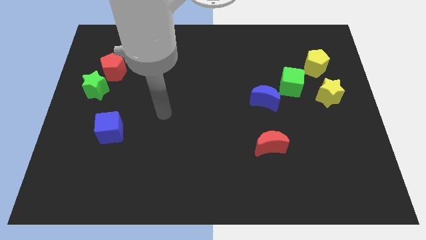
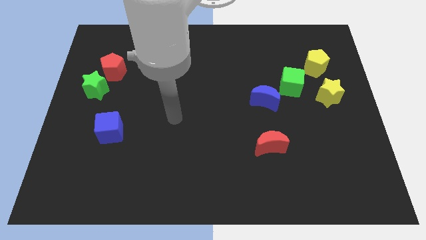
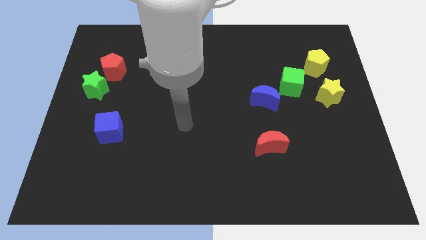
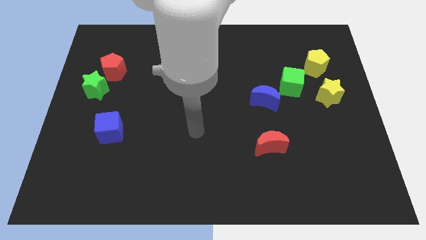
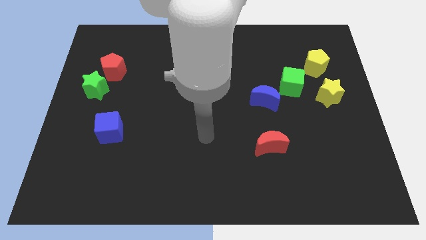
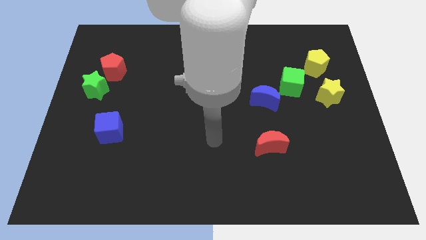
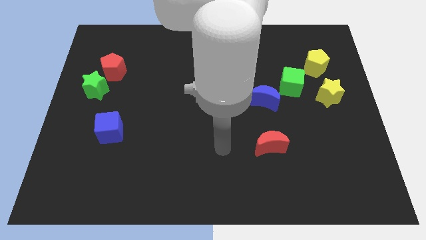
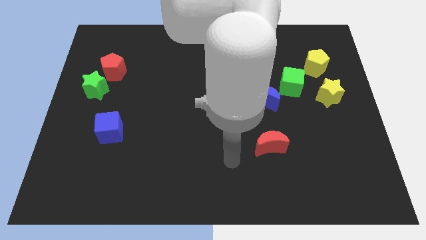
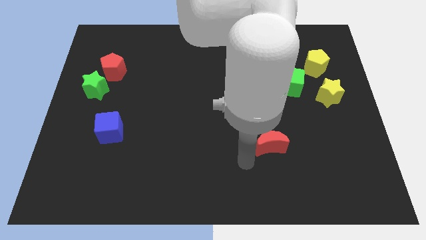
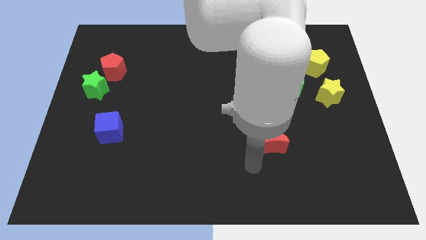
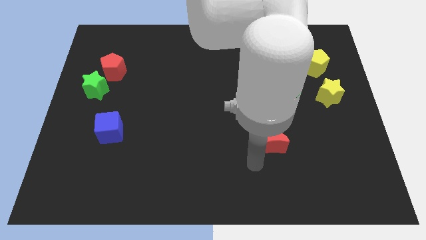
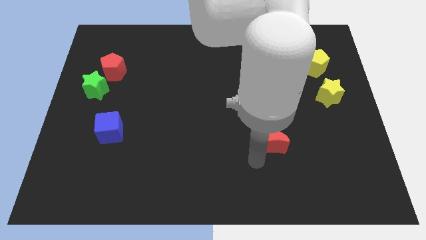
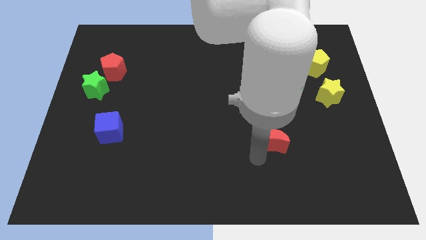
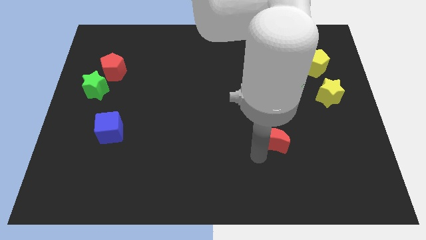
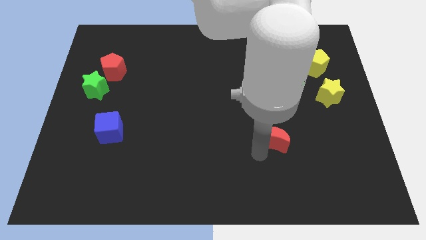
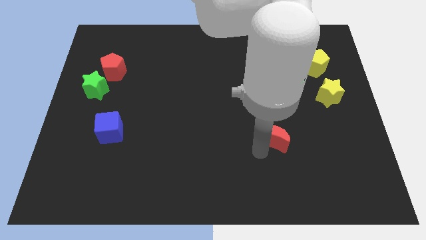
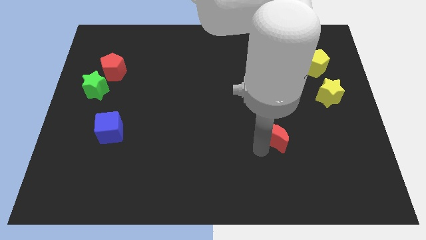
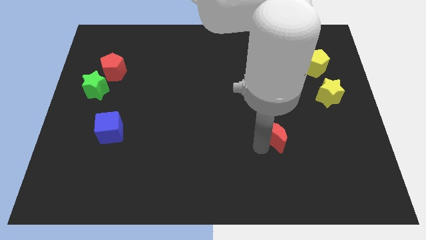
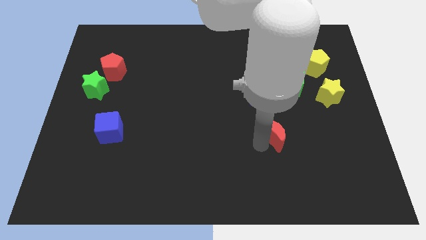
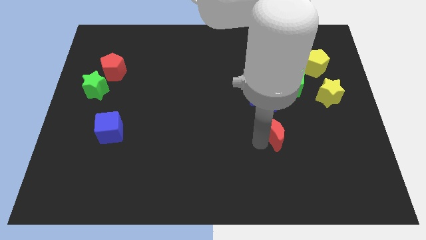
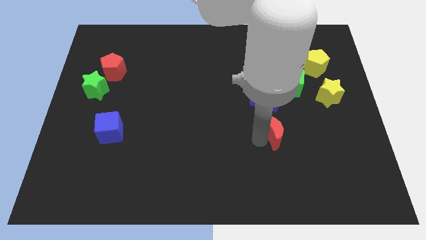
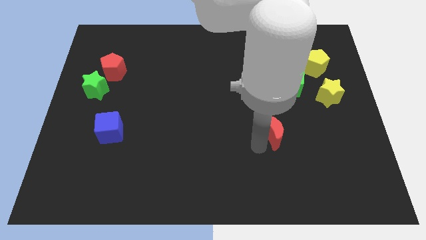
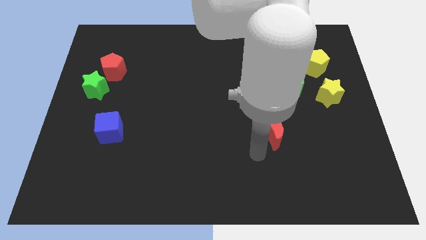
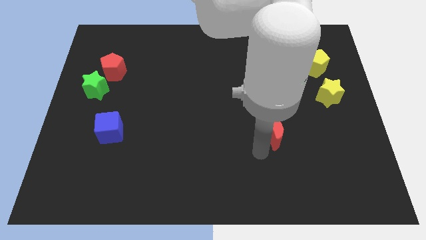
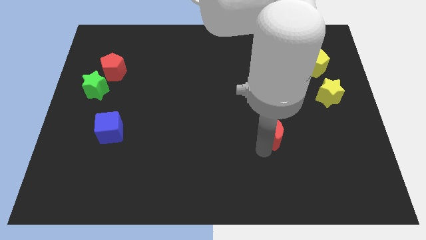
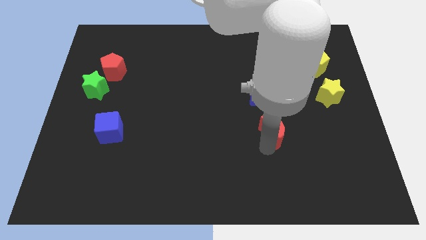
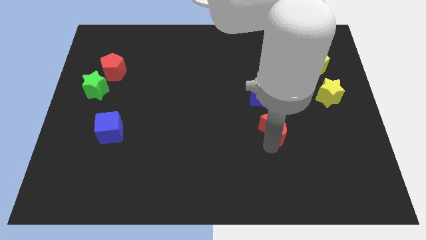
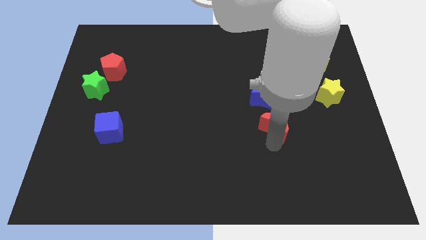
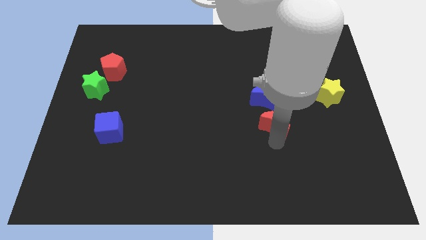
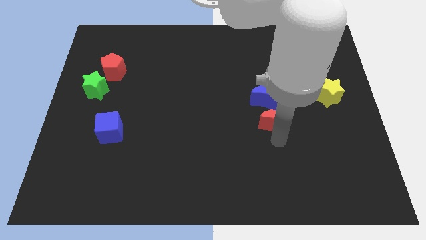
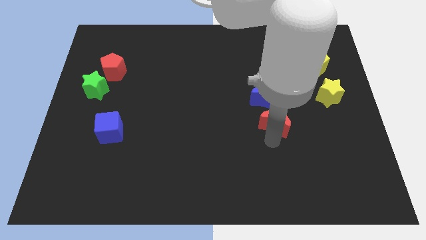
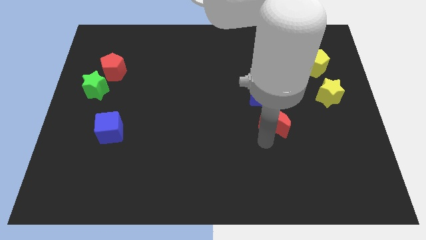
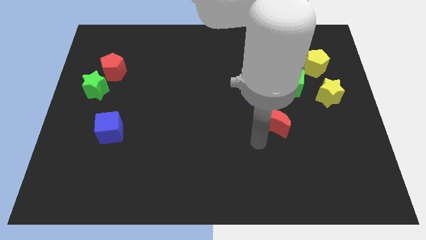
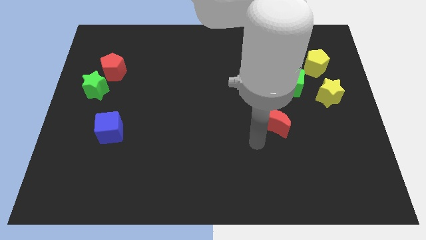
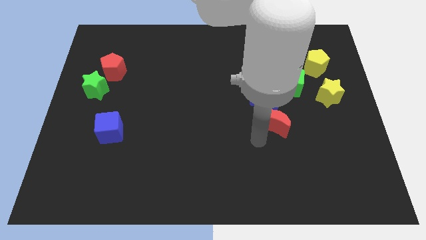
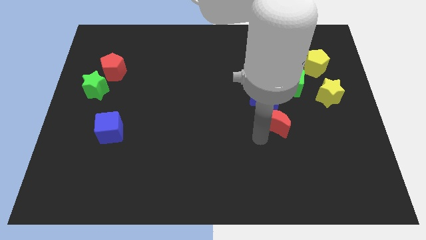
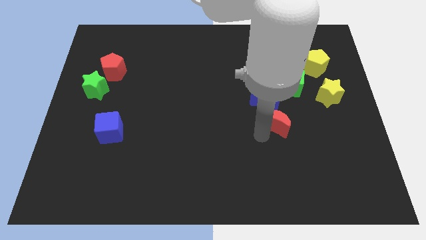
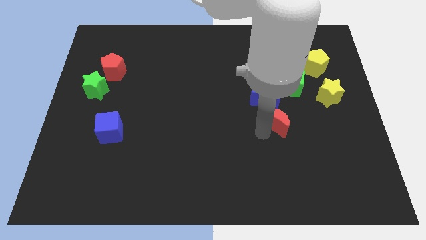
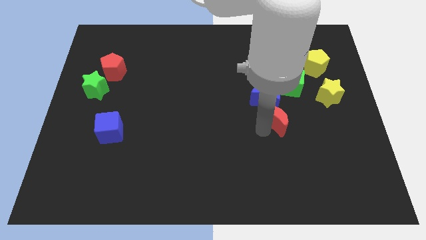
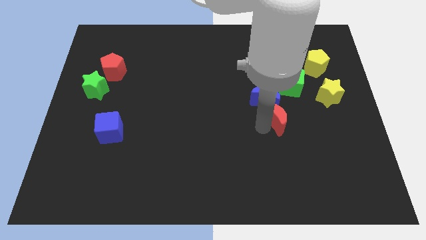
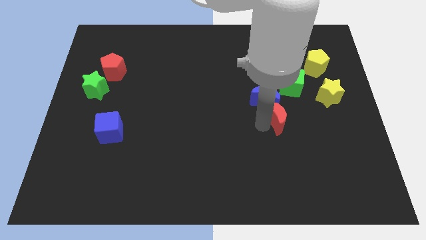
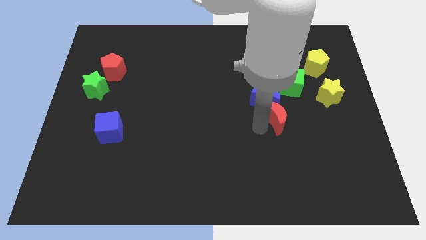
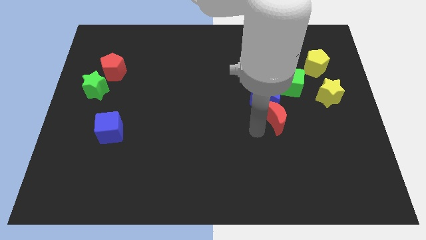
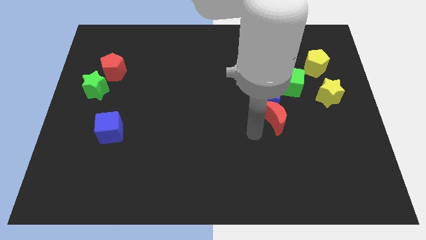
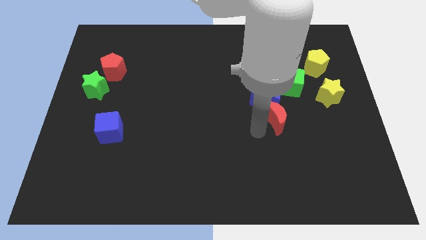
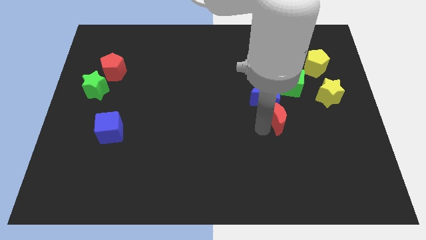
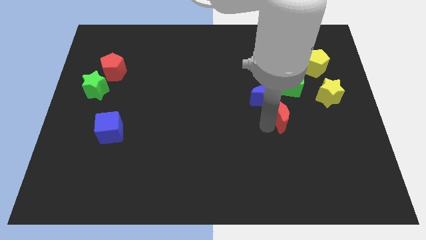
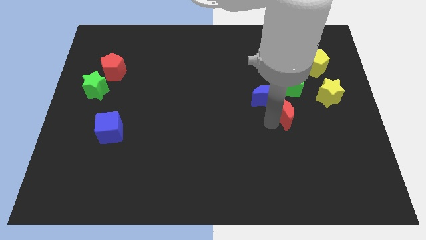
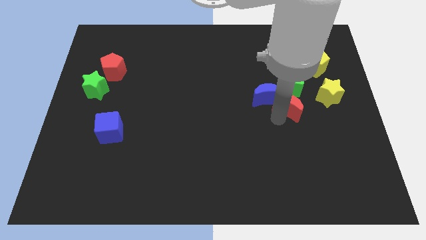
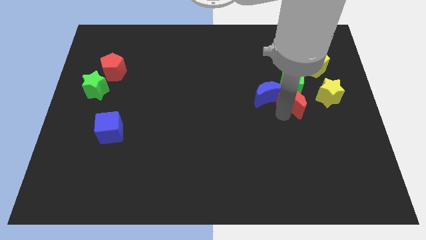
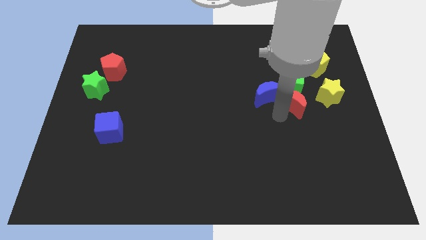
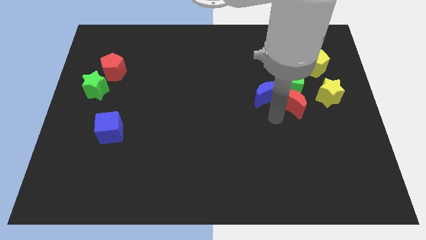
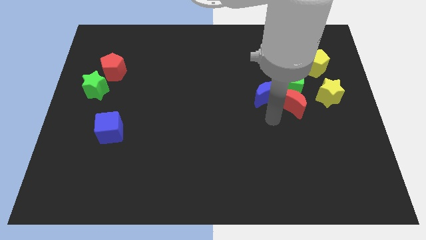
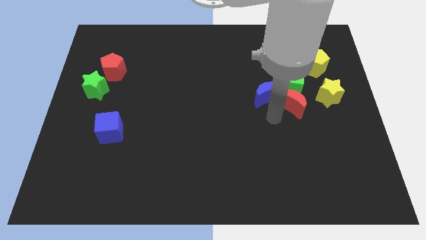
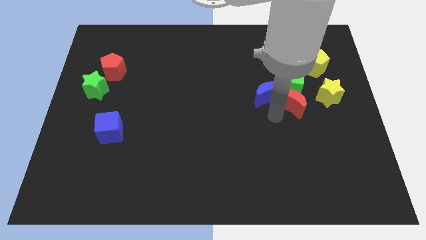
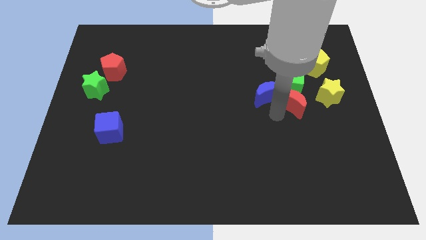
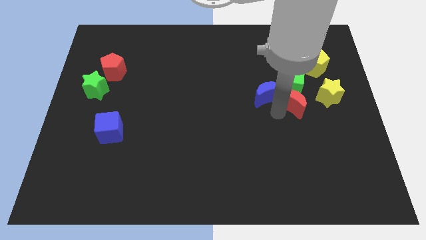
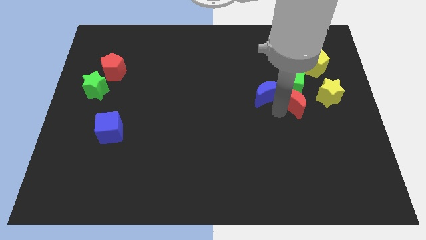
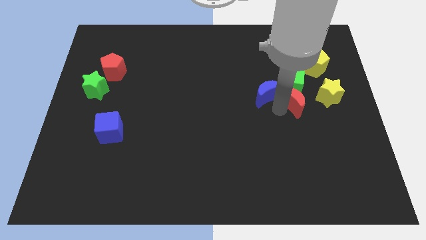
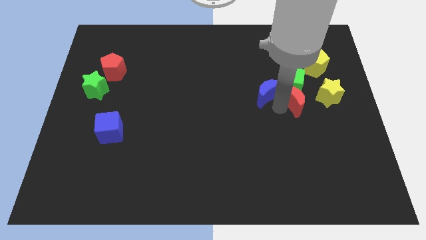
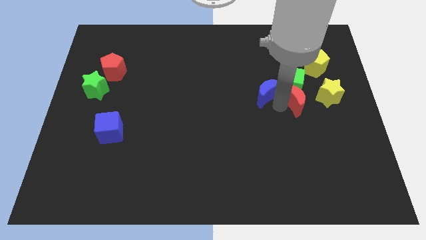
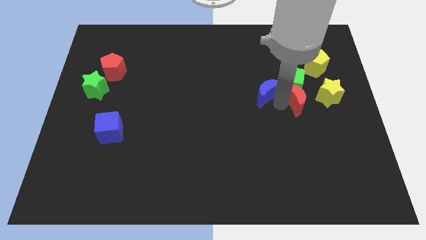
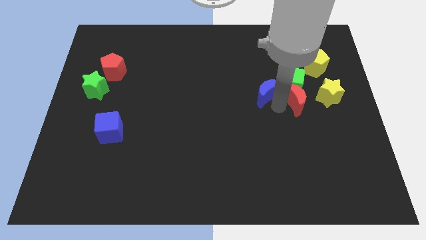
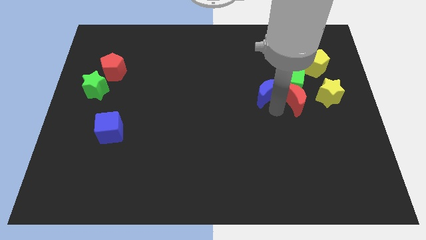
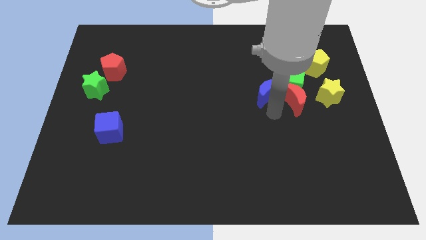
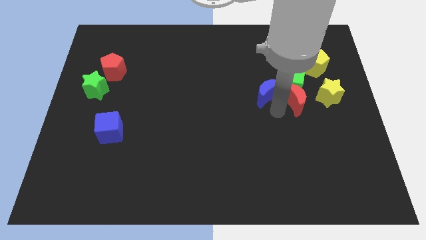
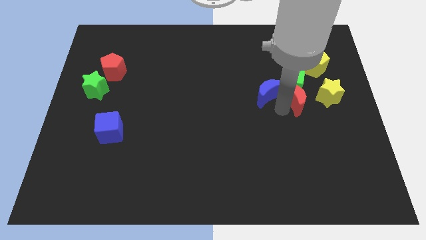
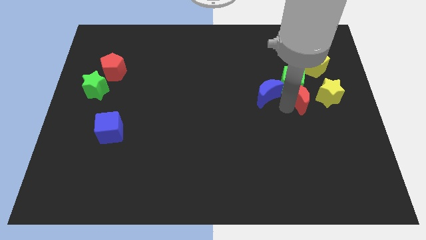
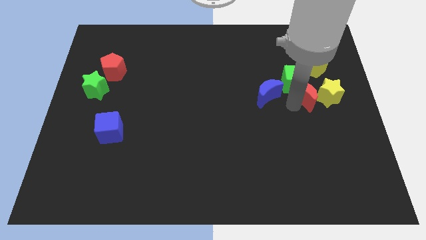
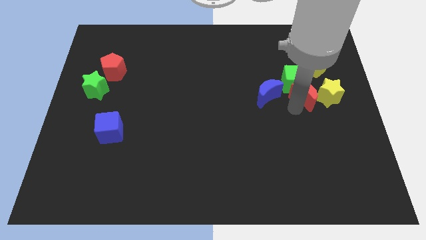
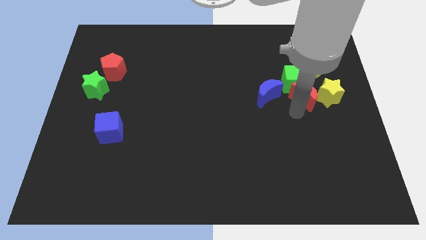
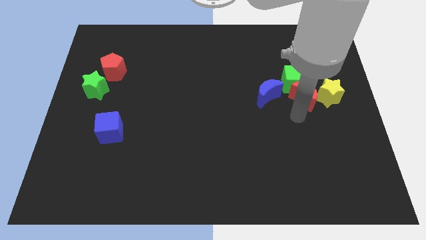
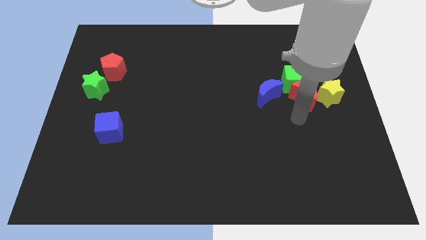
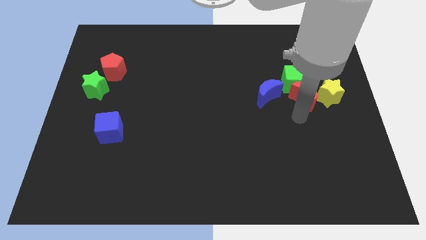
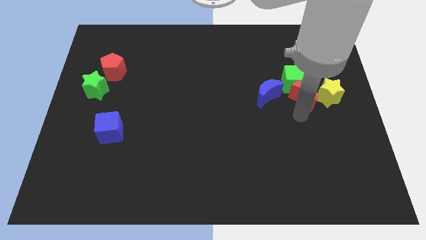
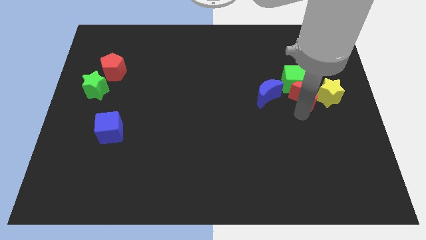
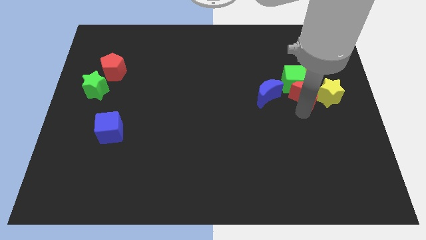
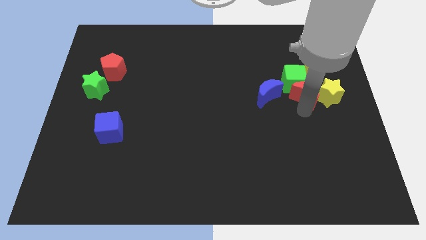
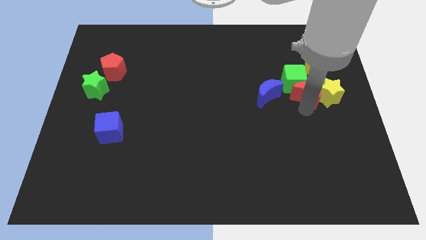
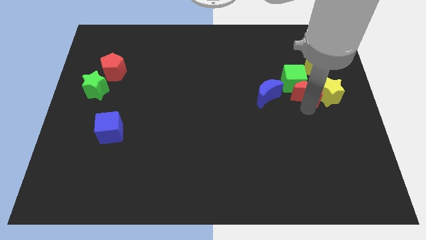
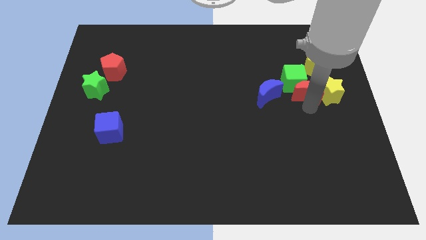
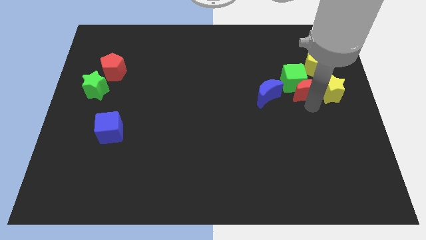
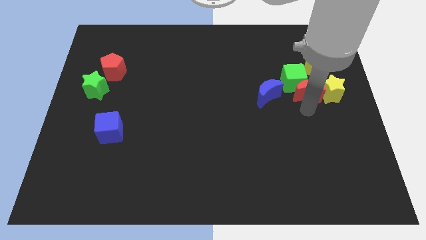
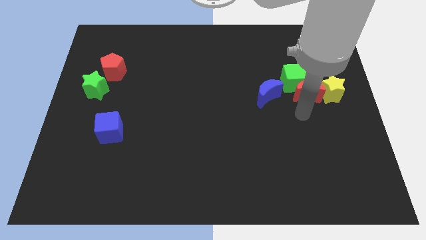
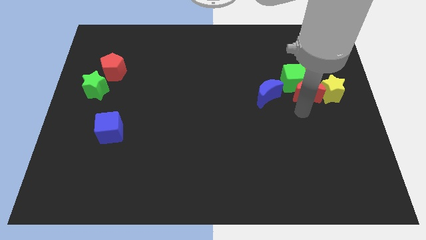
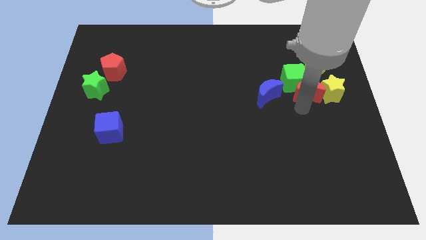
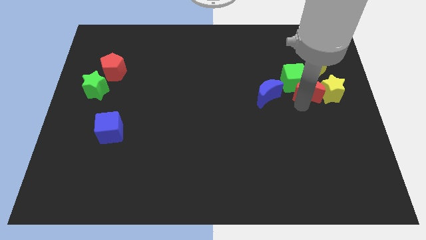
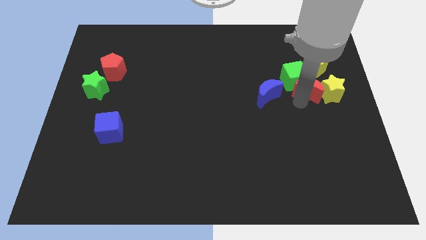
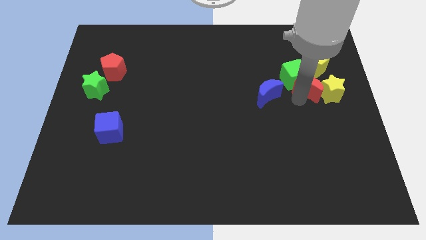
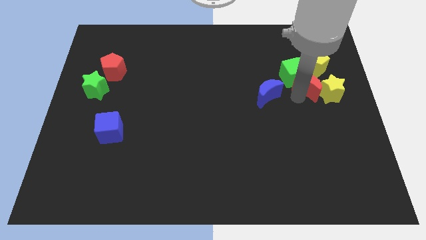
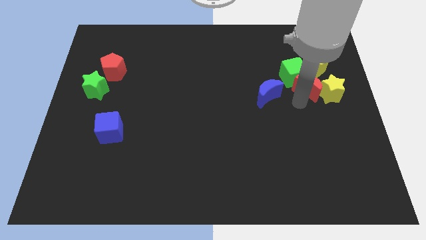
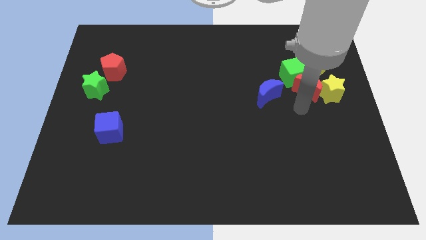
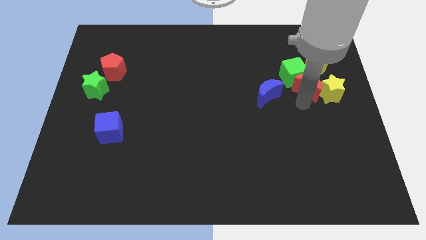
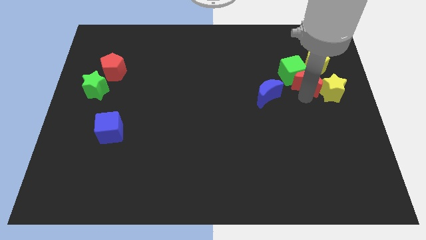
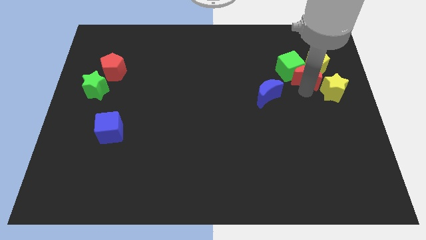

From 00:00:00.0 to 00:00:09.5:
put the red moon to the yellow pentagon
